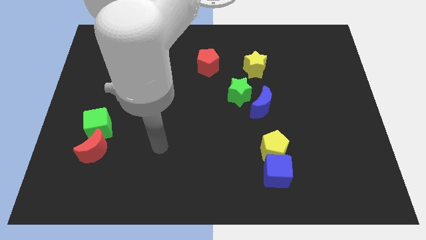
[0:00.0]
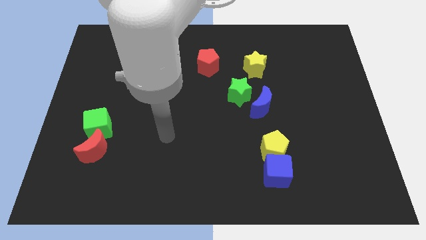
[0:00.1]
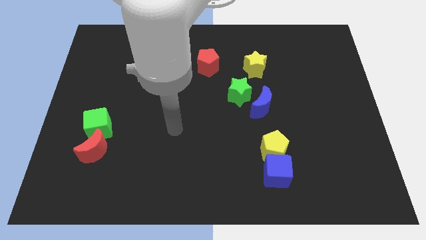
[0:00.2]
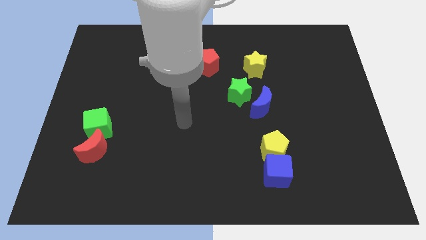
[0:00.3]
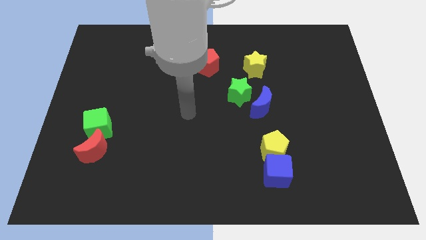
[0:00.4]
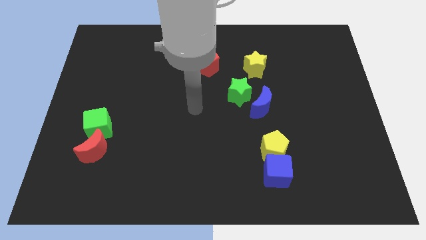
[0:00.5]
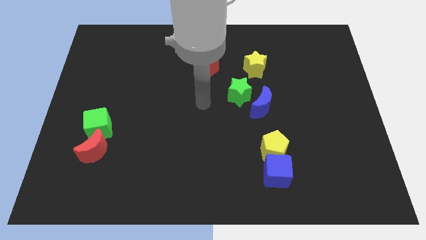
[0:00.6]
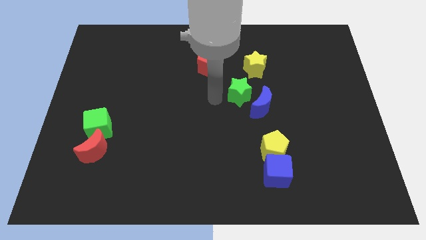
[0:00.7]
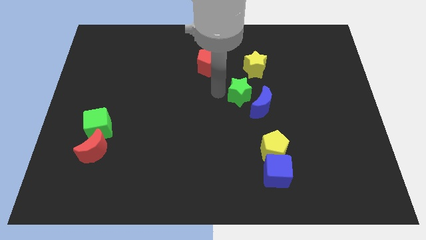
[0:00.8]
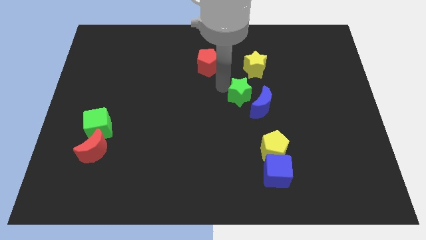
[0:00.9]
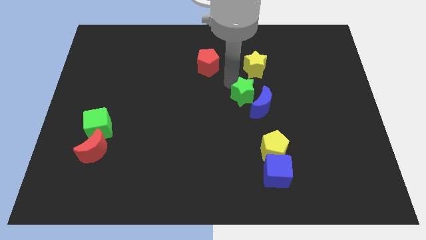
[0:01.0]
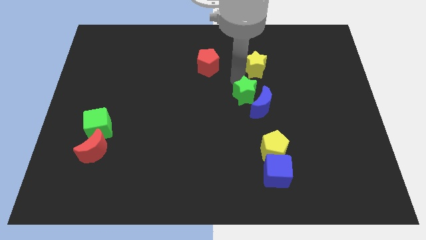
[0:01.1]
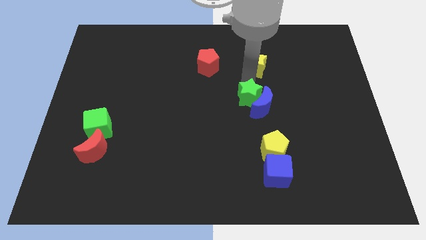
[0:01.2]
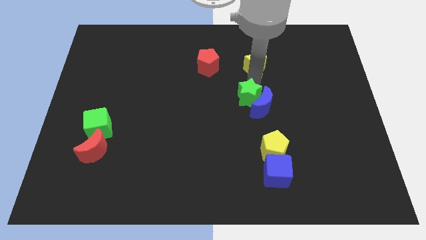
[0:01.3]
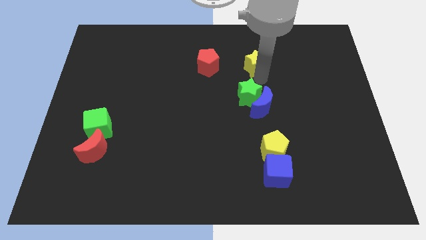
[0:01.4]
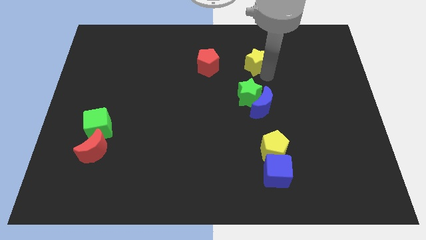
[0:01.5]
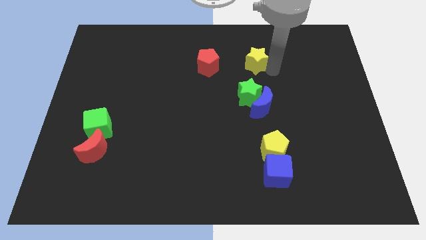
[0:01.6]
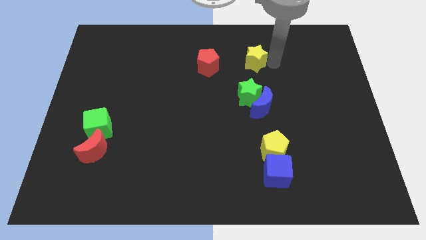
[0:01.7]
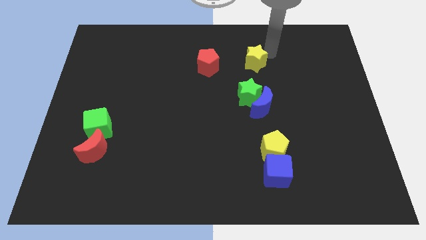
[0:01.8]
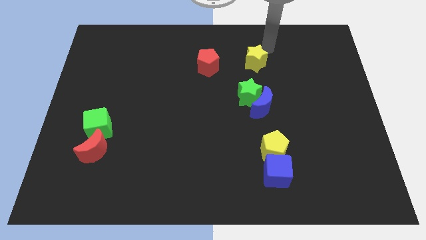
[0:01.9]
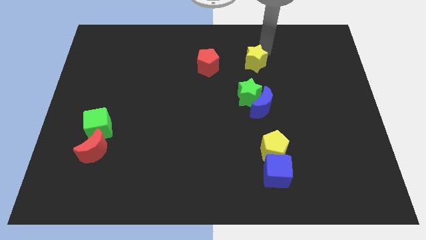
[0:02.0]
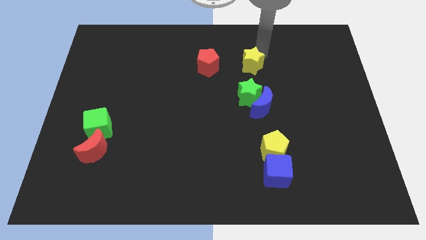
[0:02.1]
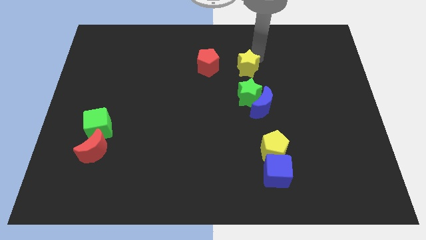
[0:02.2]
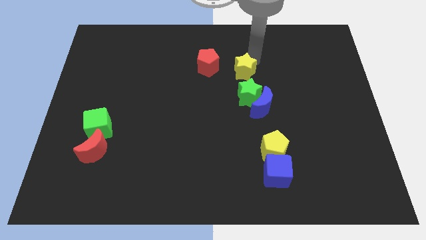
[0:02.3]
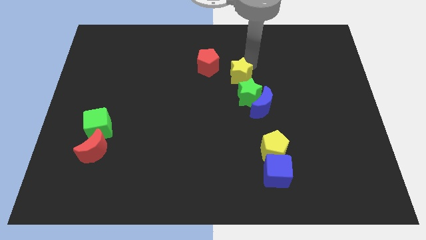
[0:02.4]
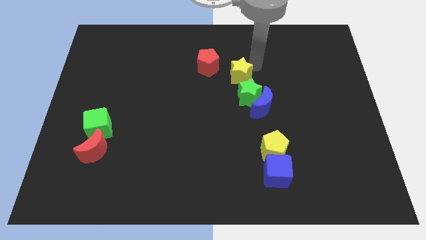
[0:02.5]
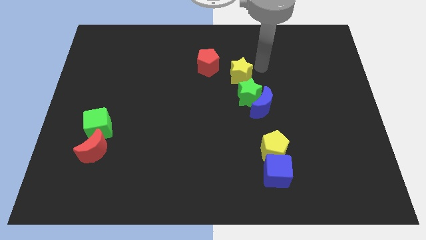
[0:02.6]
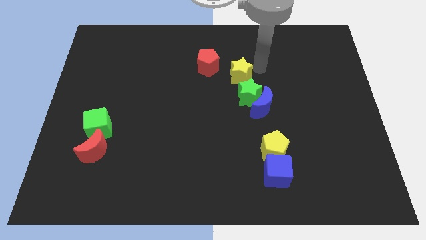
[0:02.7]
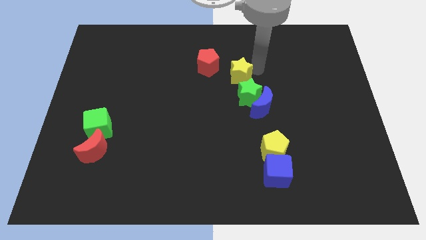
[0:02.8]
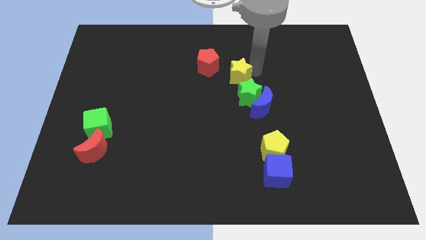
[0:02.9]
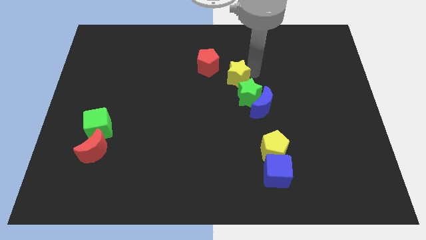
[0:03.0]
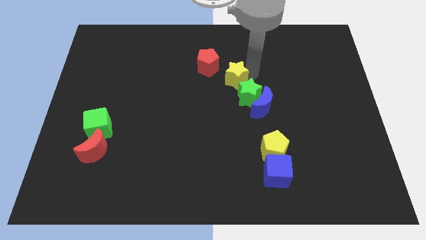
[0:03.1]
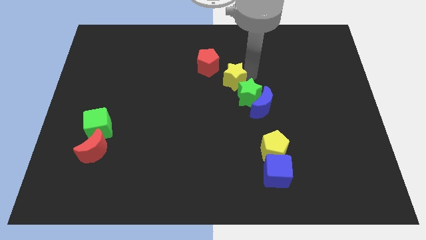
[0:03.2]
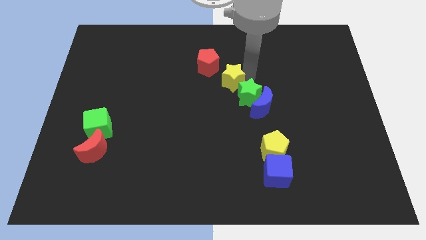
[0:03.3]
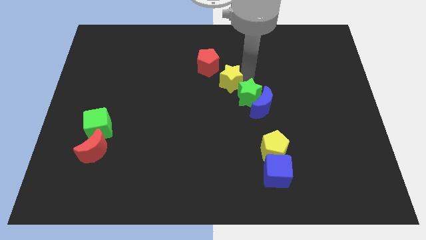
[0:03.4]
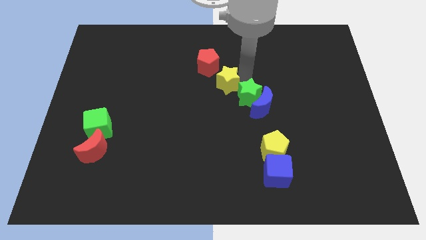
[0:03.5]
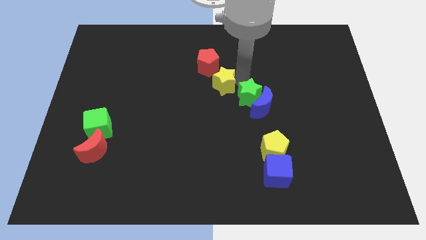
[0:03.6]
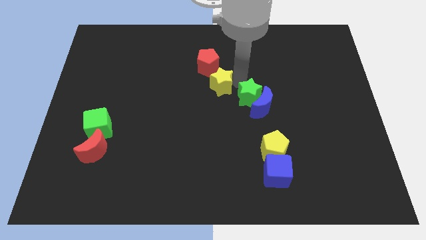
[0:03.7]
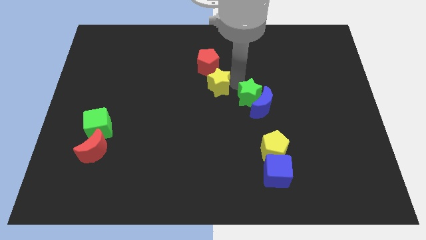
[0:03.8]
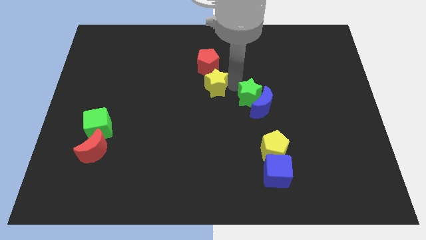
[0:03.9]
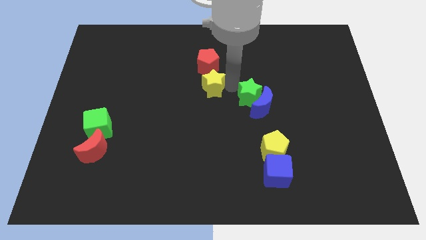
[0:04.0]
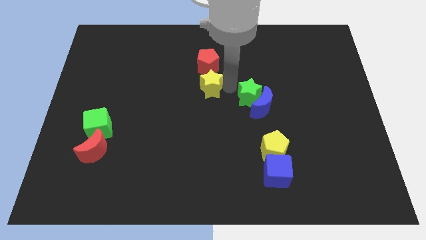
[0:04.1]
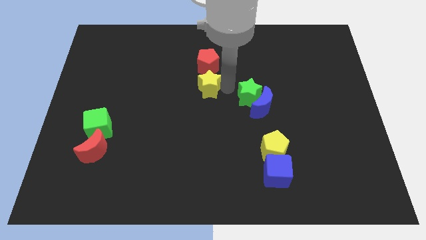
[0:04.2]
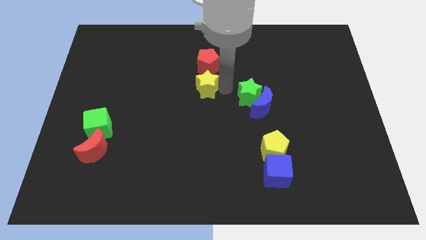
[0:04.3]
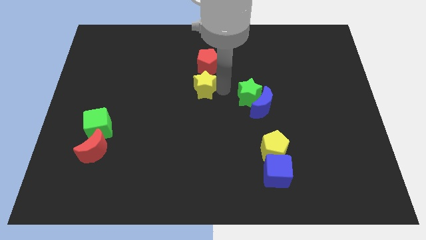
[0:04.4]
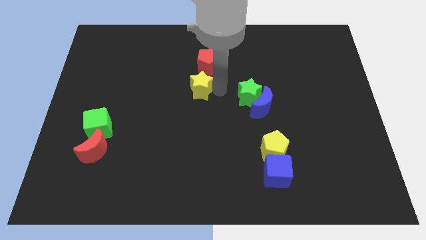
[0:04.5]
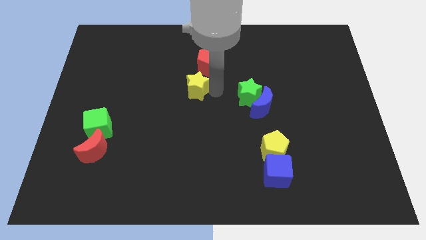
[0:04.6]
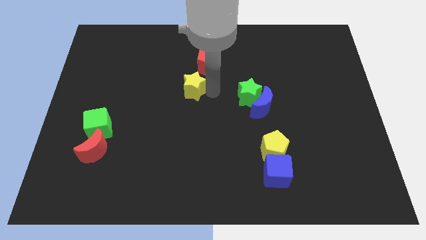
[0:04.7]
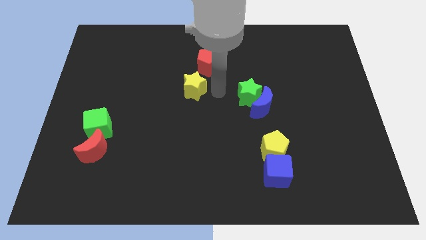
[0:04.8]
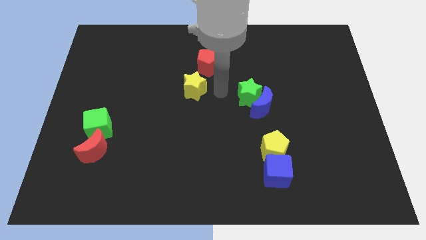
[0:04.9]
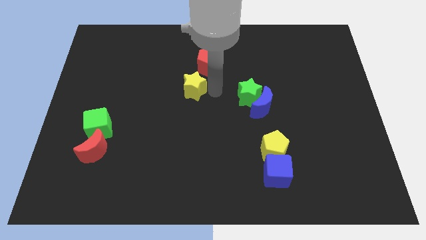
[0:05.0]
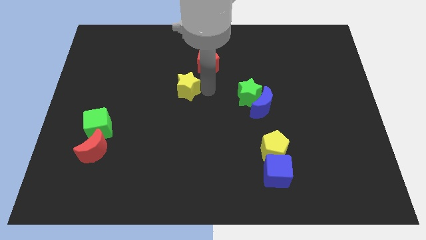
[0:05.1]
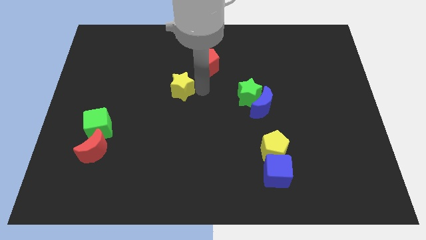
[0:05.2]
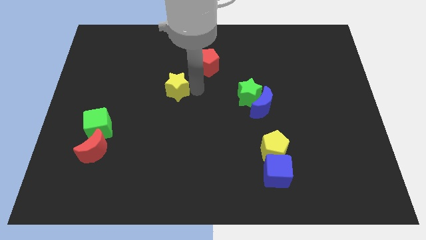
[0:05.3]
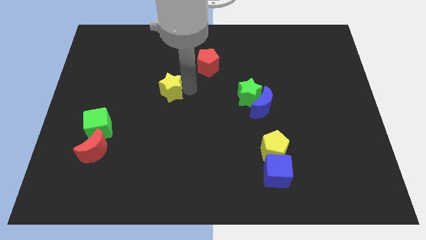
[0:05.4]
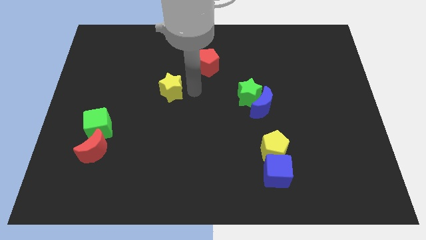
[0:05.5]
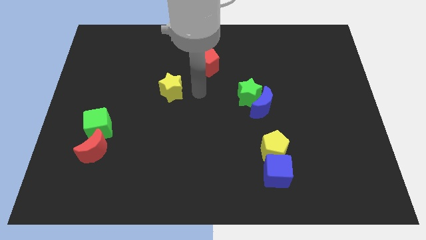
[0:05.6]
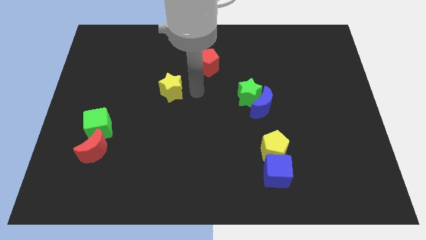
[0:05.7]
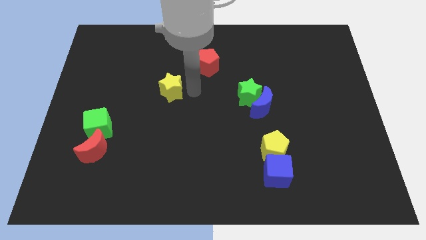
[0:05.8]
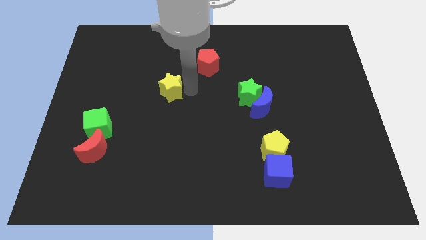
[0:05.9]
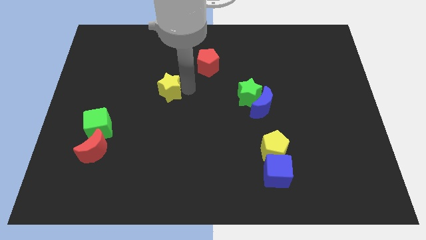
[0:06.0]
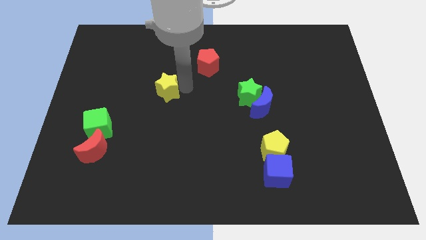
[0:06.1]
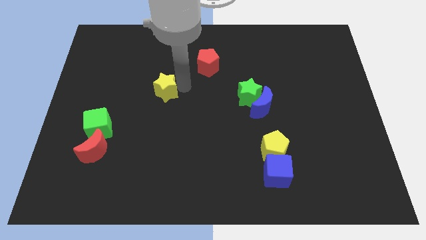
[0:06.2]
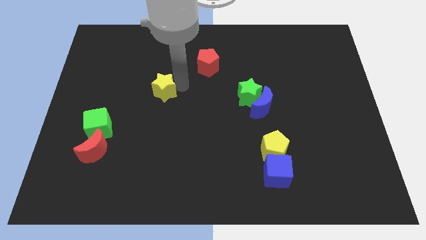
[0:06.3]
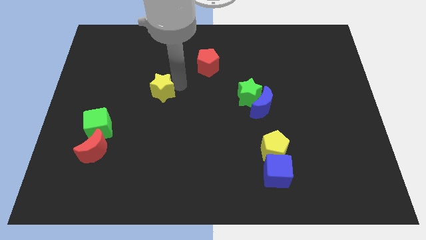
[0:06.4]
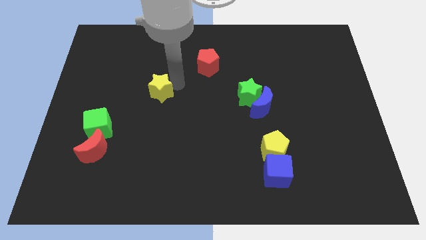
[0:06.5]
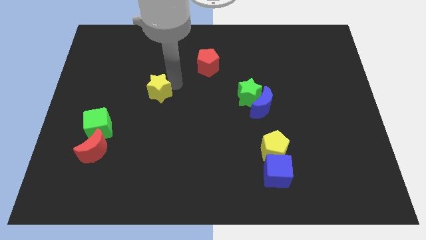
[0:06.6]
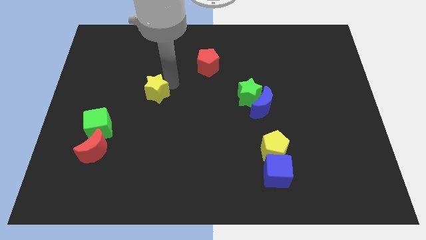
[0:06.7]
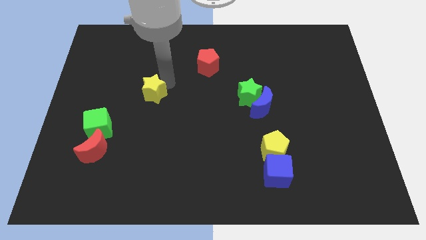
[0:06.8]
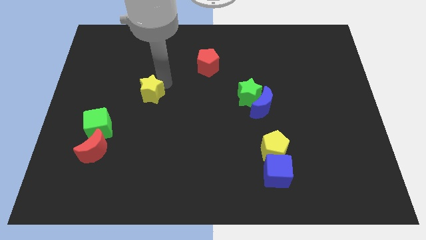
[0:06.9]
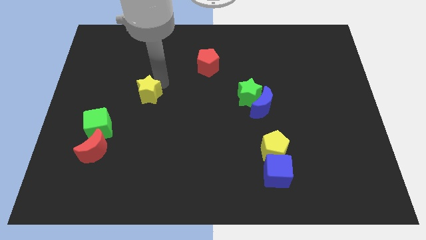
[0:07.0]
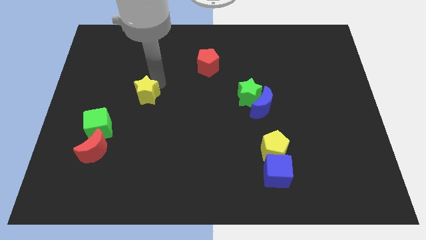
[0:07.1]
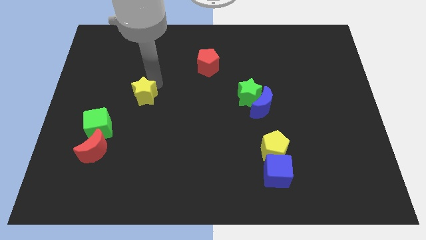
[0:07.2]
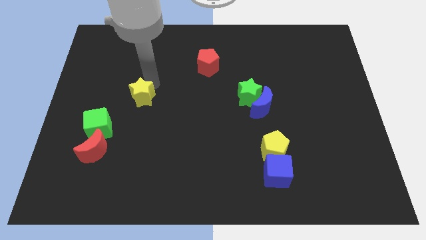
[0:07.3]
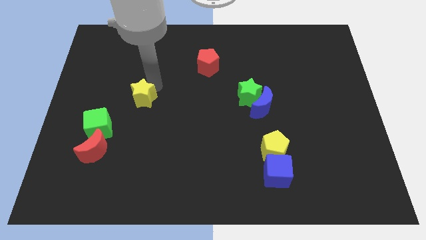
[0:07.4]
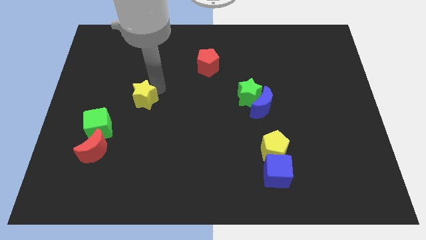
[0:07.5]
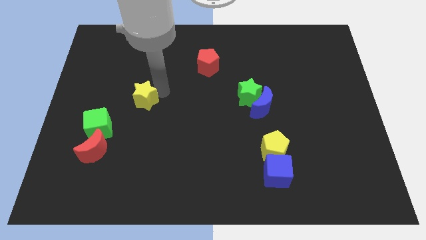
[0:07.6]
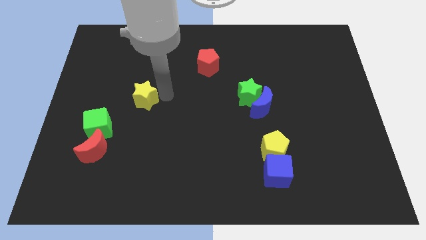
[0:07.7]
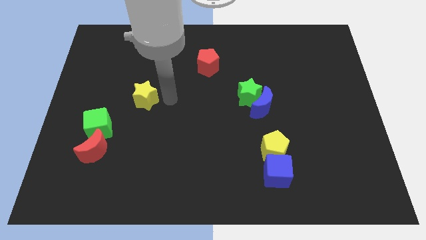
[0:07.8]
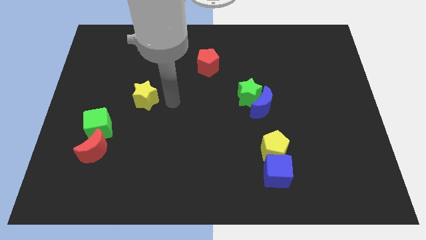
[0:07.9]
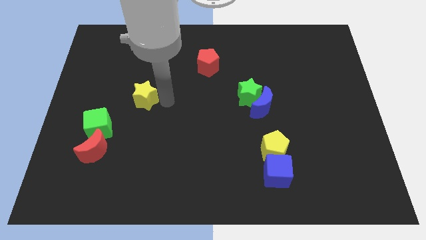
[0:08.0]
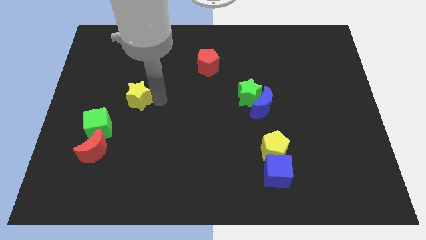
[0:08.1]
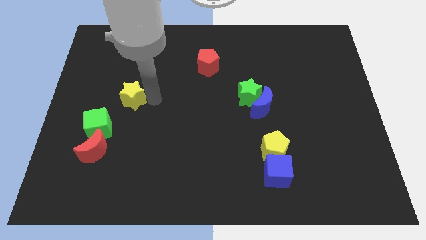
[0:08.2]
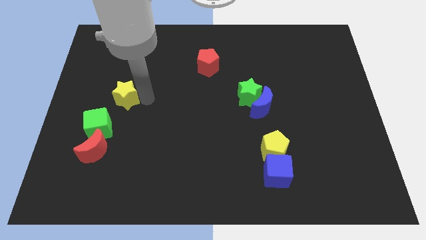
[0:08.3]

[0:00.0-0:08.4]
slide the yellow star above the green cube
